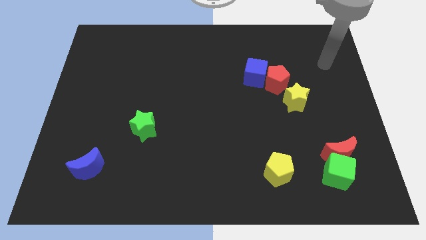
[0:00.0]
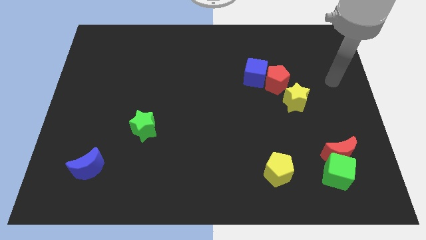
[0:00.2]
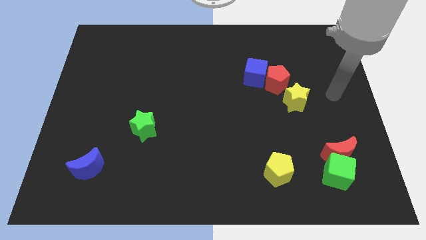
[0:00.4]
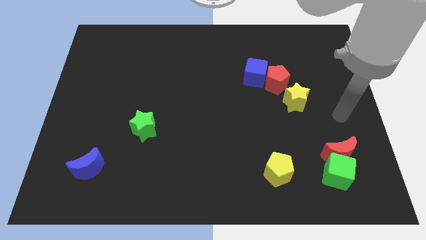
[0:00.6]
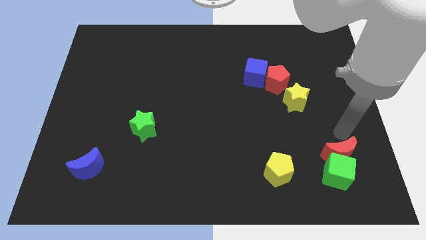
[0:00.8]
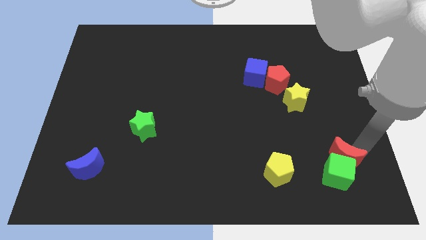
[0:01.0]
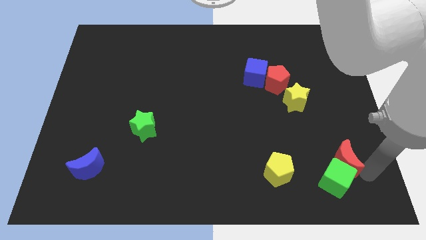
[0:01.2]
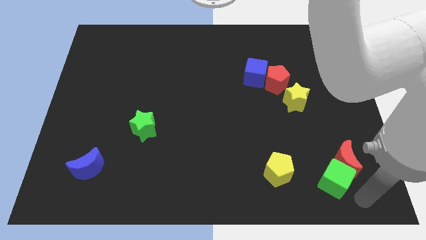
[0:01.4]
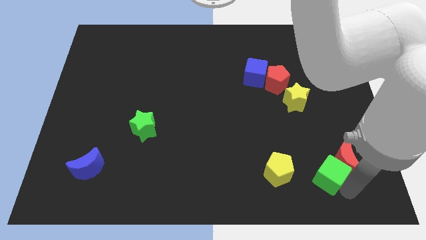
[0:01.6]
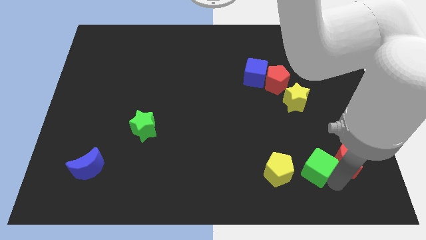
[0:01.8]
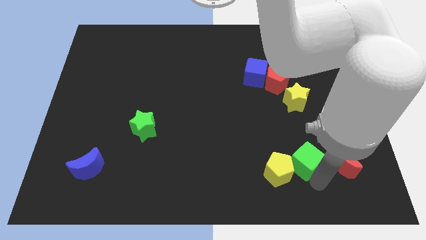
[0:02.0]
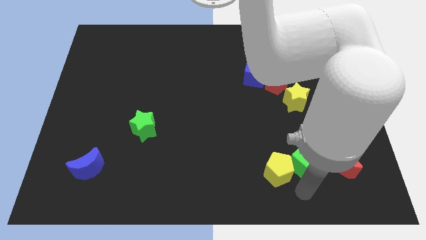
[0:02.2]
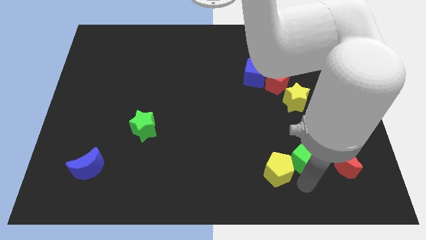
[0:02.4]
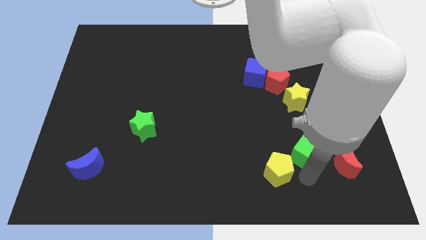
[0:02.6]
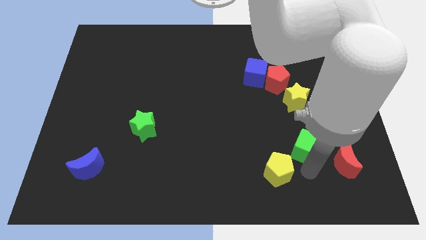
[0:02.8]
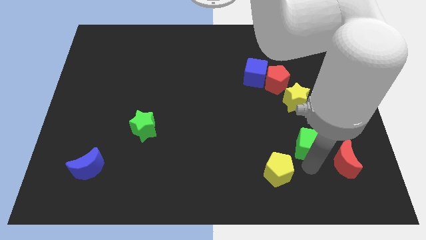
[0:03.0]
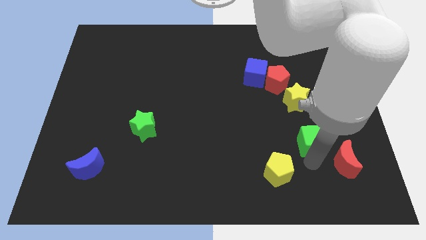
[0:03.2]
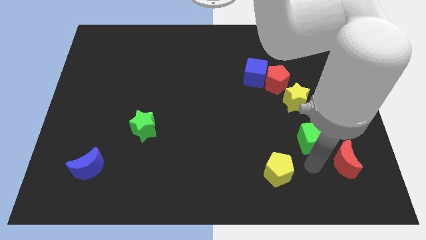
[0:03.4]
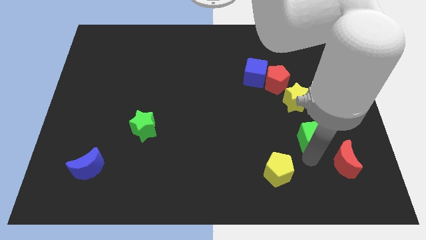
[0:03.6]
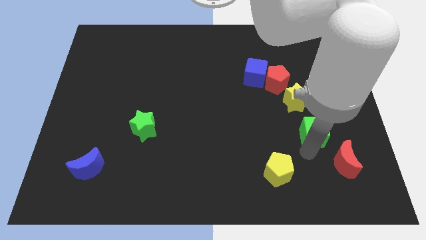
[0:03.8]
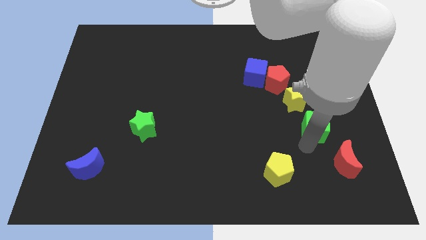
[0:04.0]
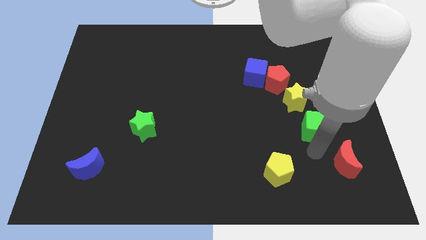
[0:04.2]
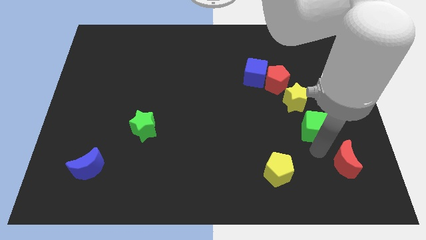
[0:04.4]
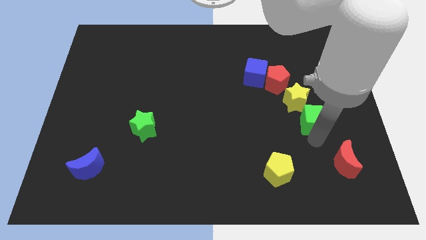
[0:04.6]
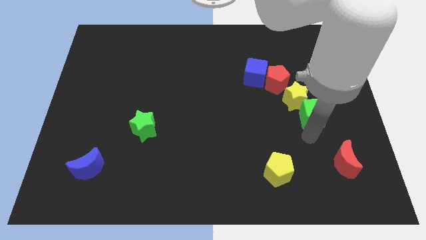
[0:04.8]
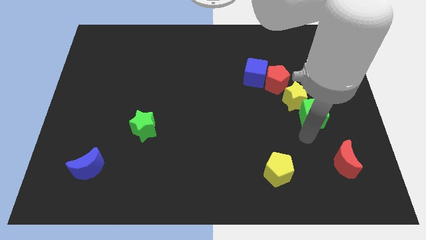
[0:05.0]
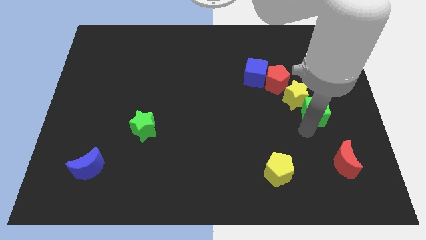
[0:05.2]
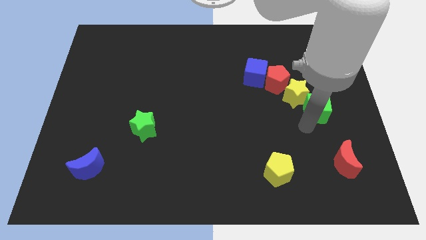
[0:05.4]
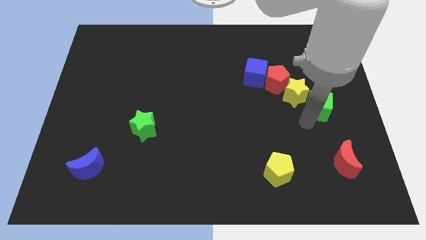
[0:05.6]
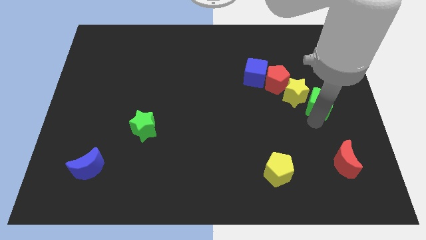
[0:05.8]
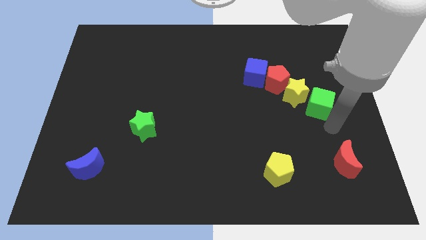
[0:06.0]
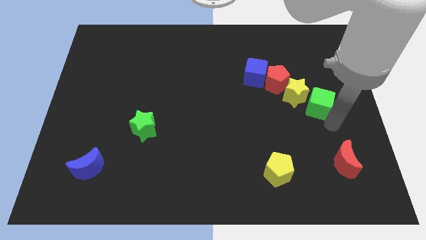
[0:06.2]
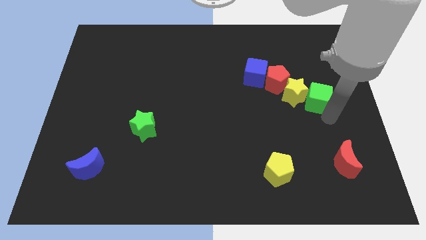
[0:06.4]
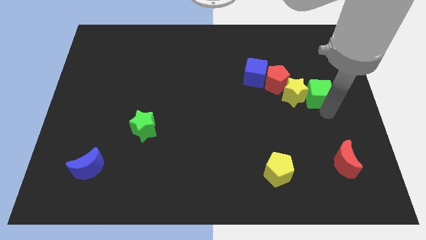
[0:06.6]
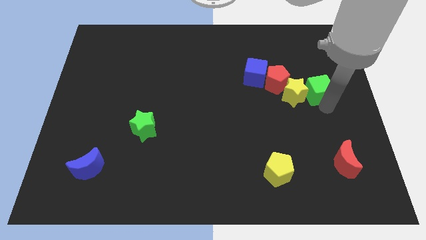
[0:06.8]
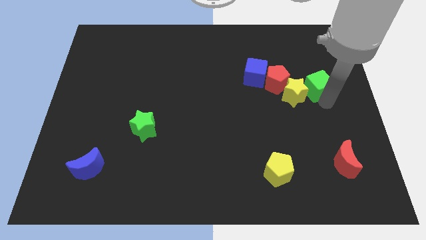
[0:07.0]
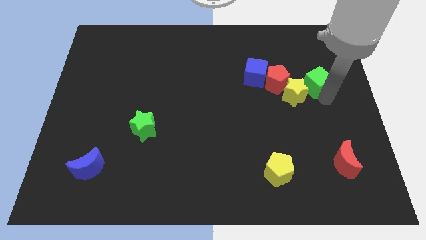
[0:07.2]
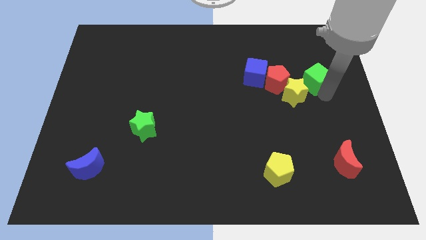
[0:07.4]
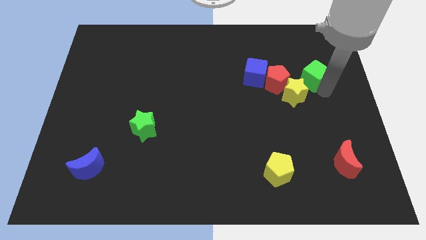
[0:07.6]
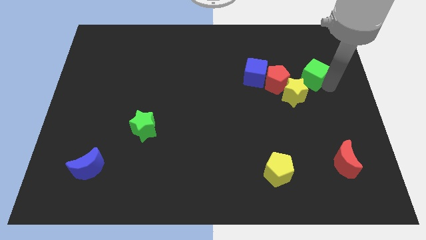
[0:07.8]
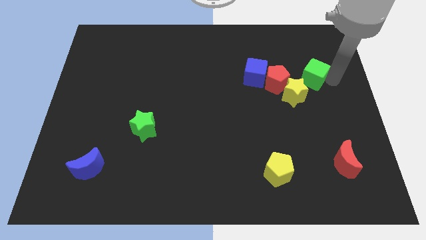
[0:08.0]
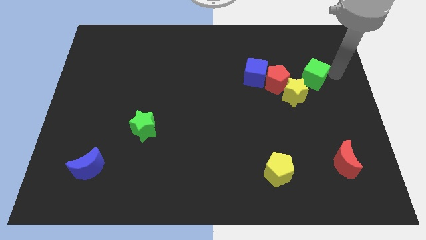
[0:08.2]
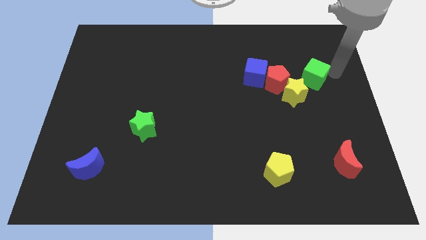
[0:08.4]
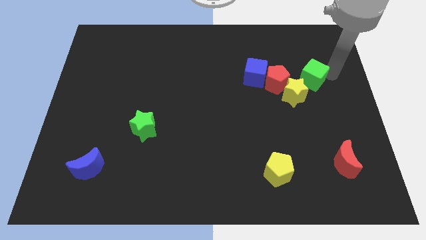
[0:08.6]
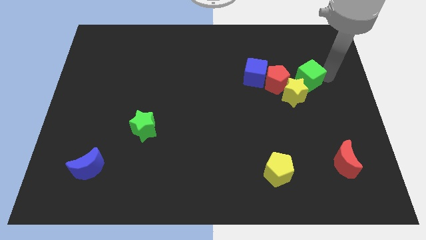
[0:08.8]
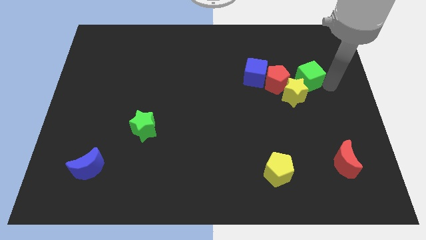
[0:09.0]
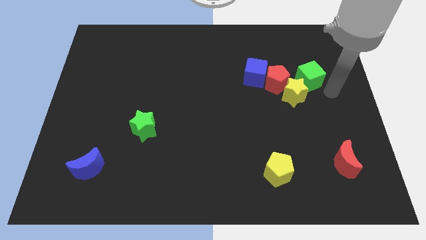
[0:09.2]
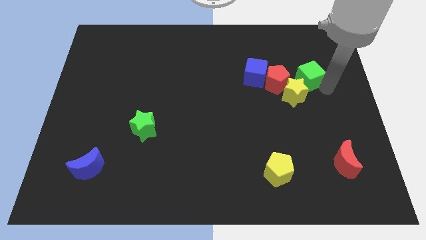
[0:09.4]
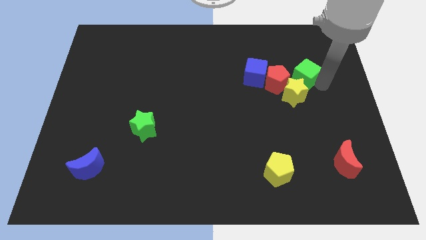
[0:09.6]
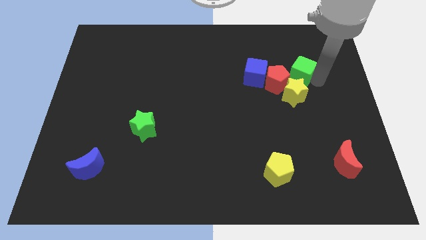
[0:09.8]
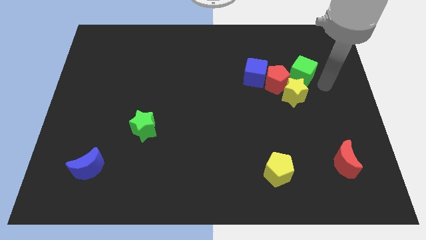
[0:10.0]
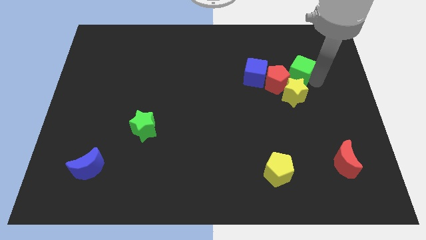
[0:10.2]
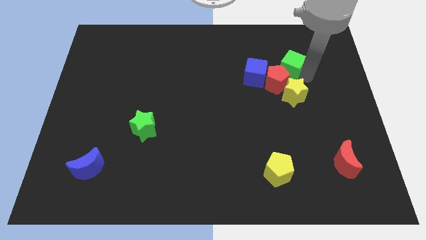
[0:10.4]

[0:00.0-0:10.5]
put the green cube to the top right of the blue cube

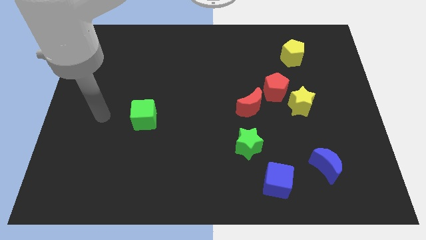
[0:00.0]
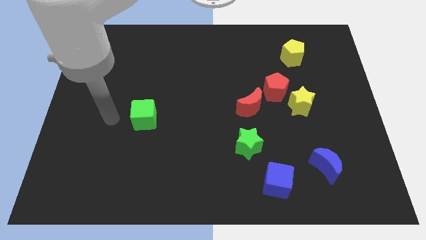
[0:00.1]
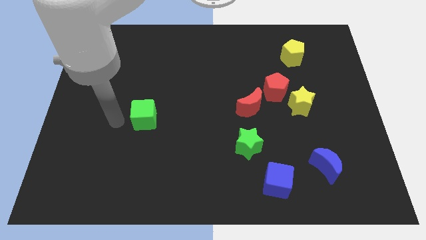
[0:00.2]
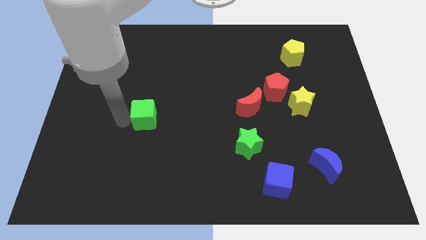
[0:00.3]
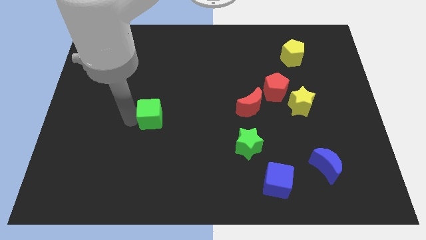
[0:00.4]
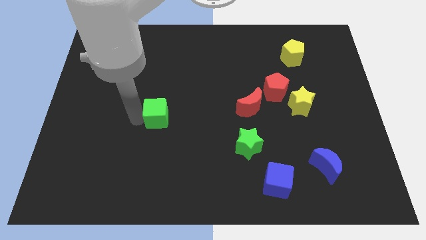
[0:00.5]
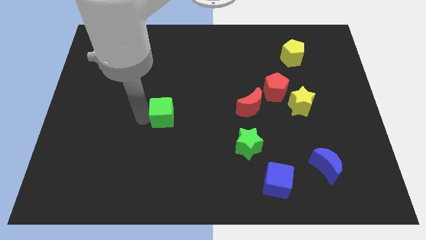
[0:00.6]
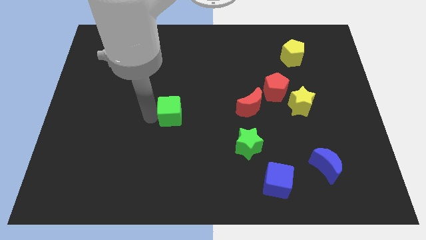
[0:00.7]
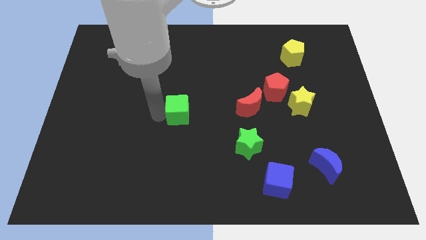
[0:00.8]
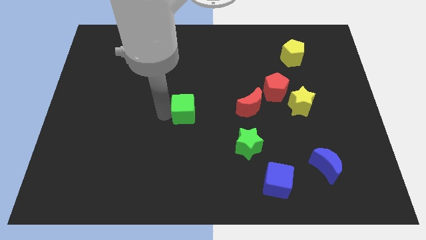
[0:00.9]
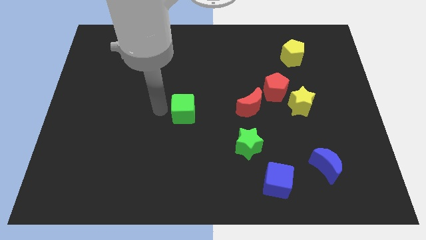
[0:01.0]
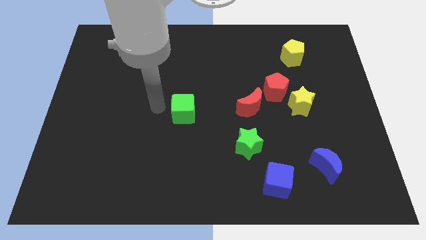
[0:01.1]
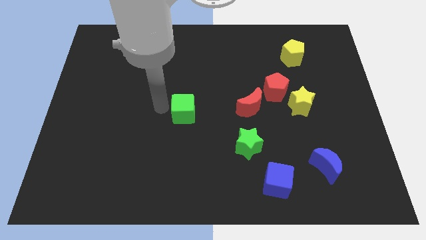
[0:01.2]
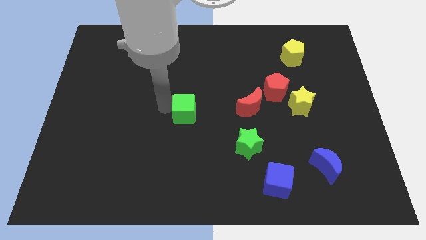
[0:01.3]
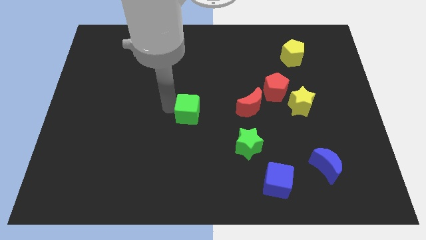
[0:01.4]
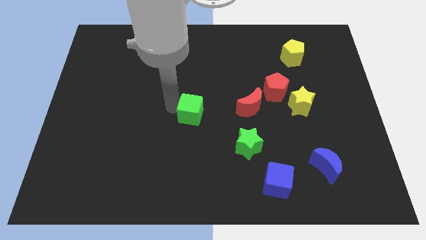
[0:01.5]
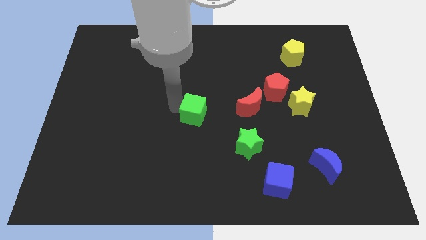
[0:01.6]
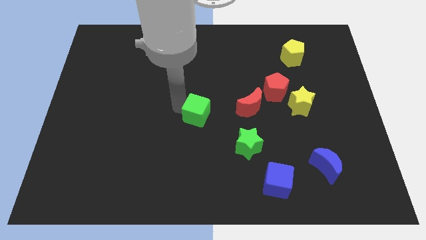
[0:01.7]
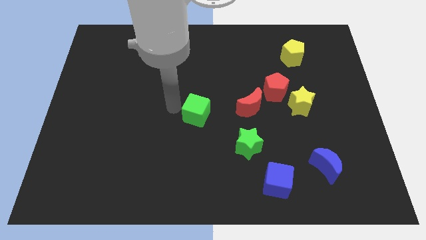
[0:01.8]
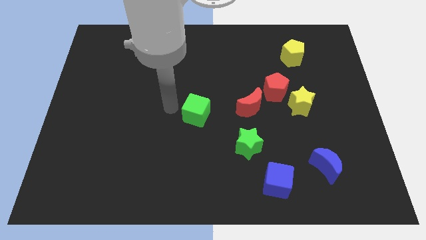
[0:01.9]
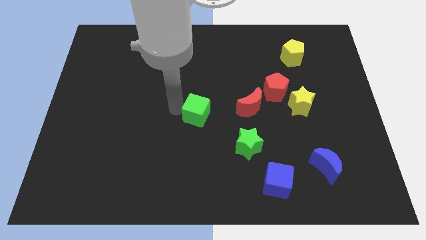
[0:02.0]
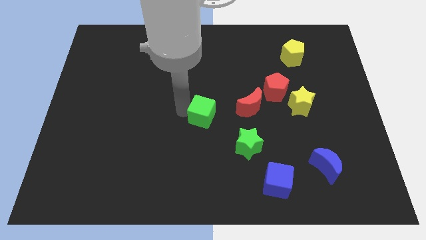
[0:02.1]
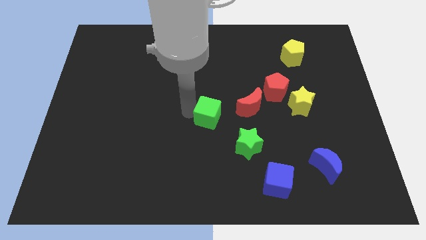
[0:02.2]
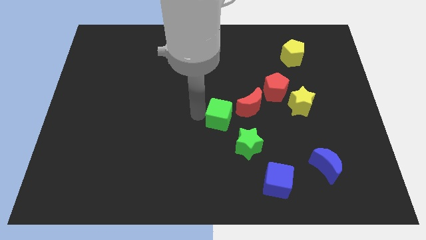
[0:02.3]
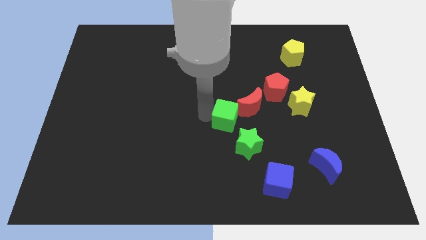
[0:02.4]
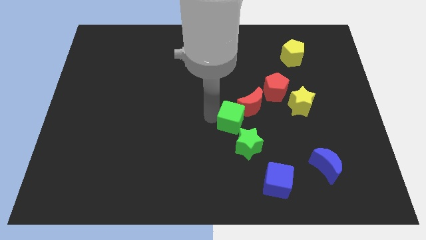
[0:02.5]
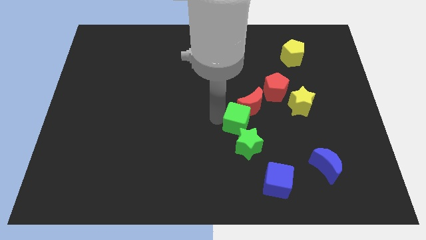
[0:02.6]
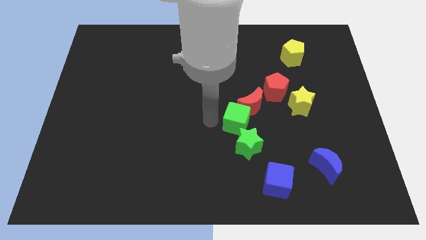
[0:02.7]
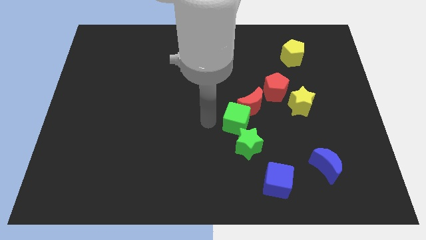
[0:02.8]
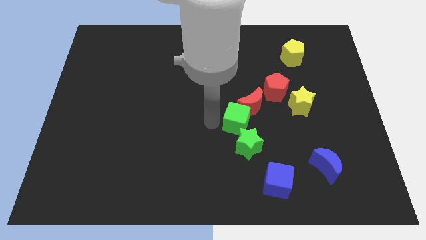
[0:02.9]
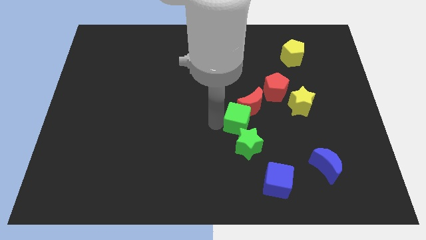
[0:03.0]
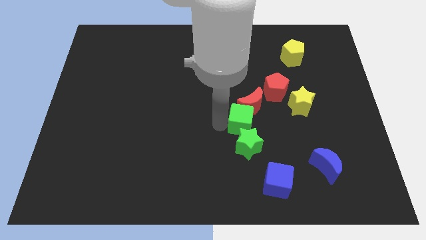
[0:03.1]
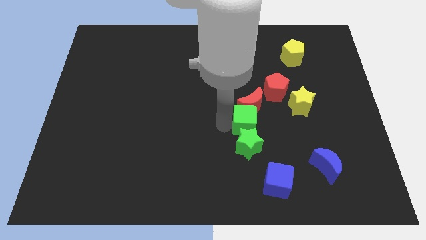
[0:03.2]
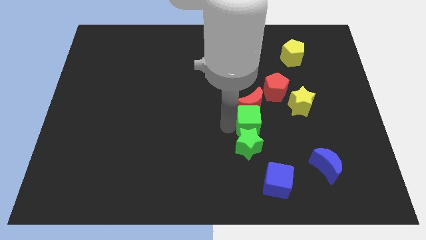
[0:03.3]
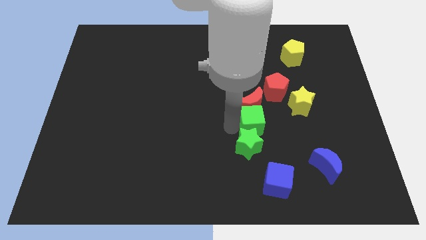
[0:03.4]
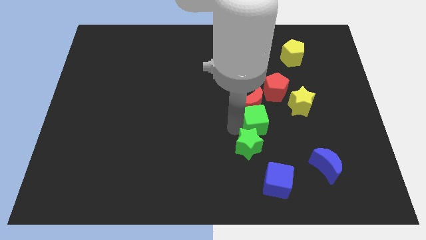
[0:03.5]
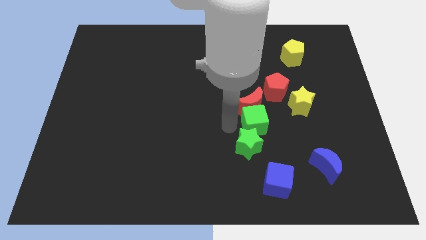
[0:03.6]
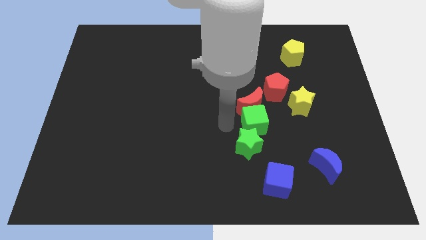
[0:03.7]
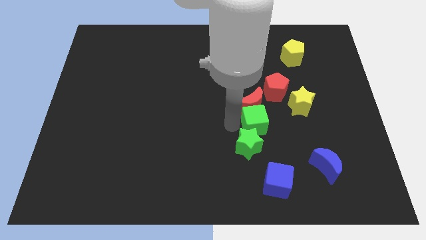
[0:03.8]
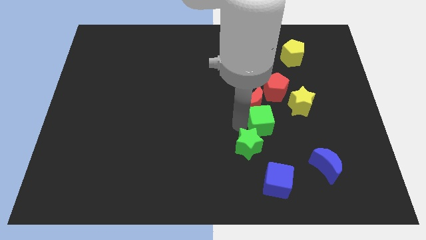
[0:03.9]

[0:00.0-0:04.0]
push the green cube diagonally down and to the left of the yellow star
